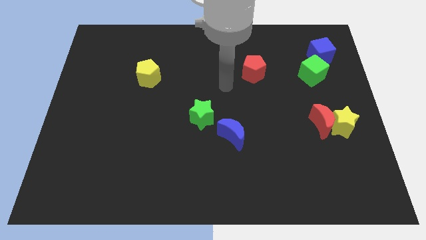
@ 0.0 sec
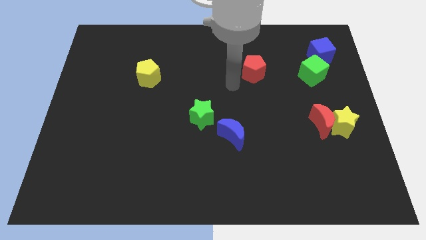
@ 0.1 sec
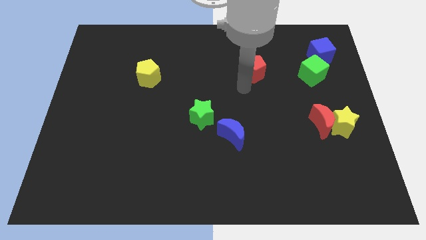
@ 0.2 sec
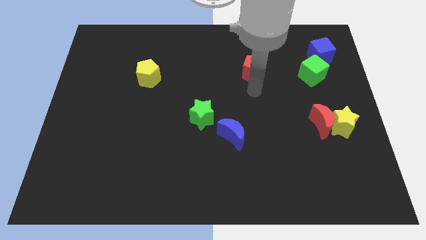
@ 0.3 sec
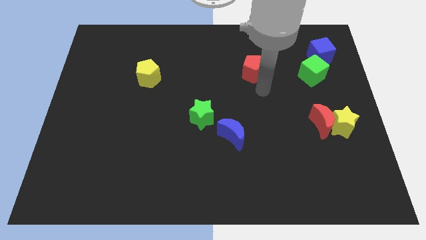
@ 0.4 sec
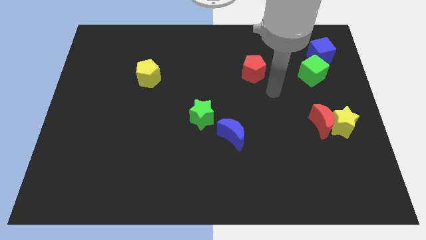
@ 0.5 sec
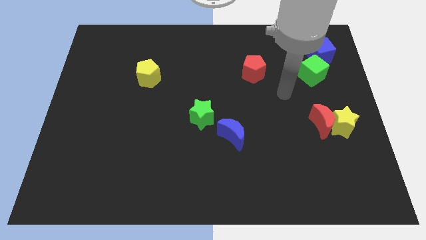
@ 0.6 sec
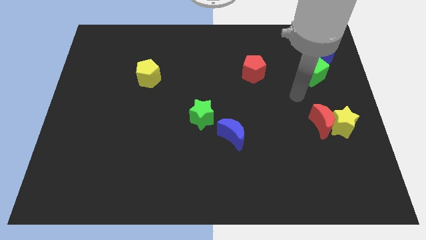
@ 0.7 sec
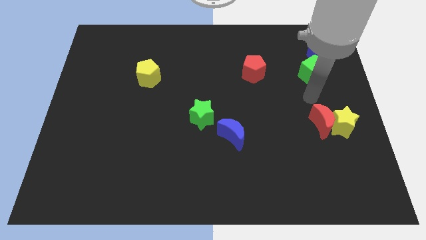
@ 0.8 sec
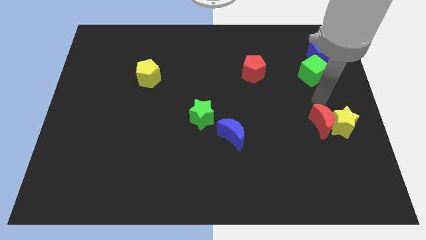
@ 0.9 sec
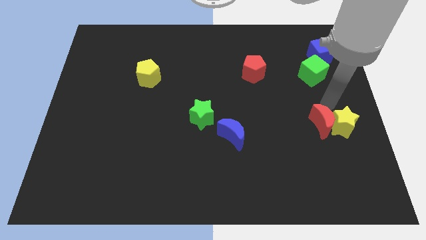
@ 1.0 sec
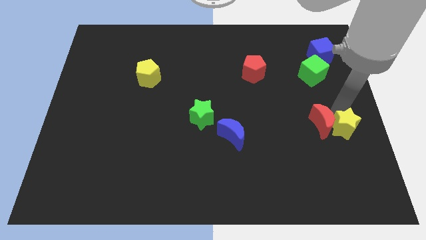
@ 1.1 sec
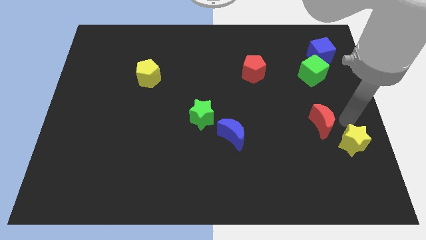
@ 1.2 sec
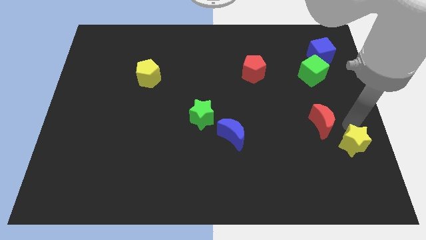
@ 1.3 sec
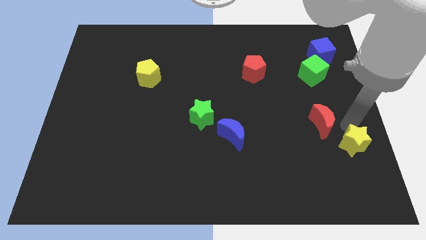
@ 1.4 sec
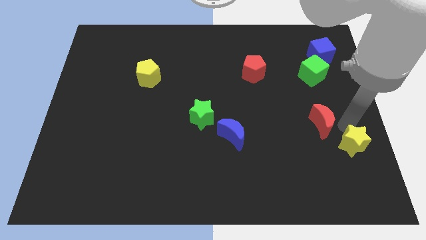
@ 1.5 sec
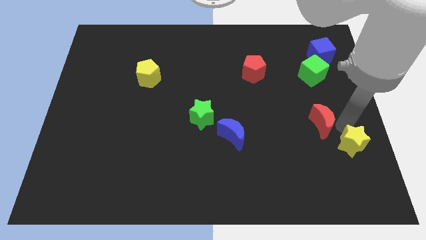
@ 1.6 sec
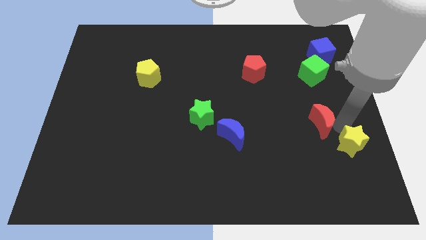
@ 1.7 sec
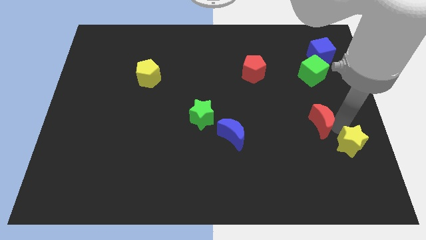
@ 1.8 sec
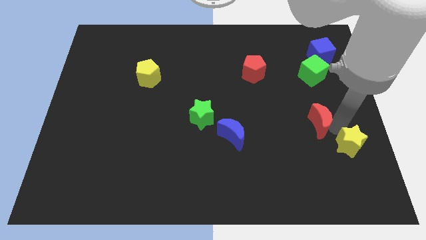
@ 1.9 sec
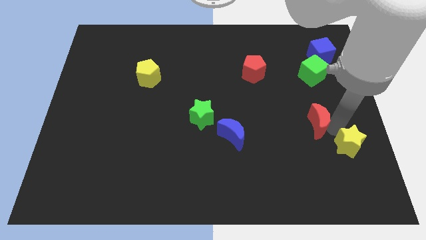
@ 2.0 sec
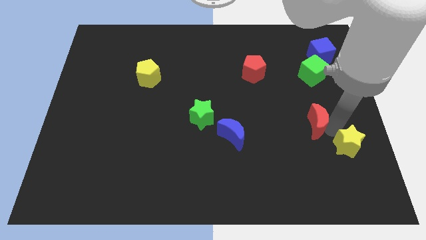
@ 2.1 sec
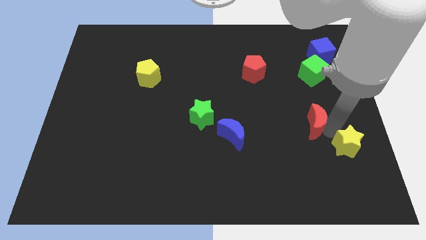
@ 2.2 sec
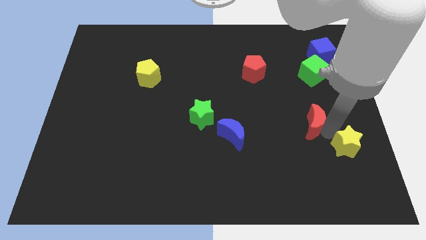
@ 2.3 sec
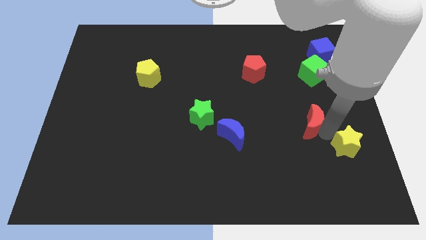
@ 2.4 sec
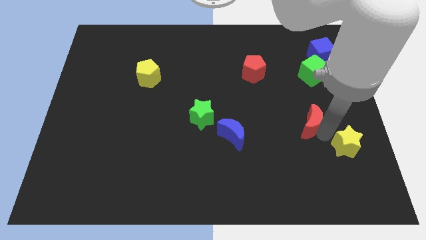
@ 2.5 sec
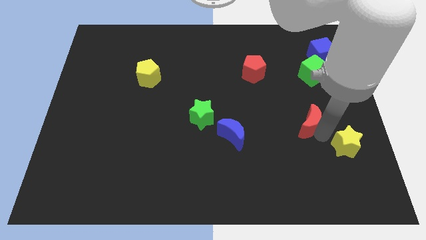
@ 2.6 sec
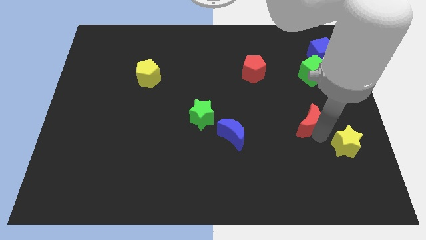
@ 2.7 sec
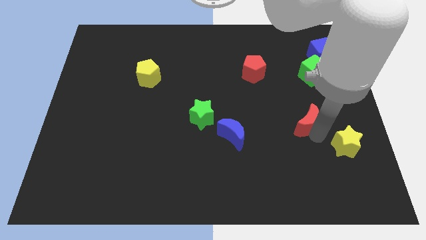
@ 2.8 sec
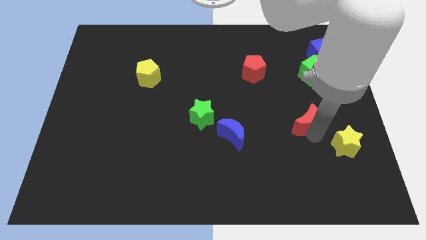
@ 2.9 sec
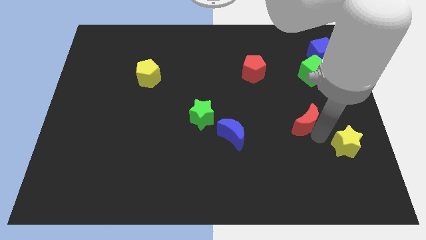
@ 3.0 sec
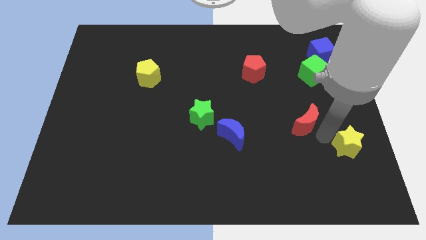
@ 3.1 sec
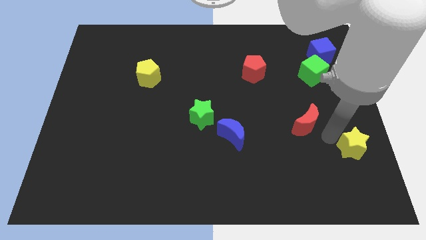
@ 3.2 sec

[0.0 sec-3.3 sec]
move the red moon away from the yellow star

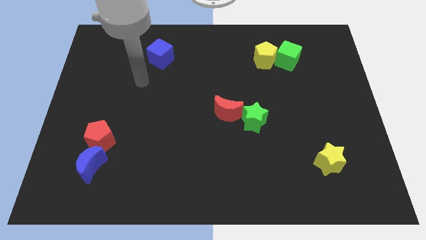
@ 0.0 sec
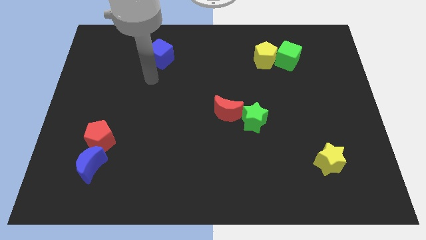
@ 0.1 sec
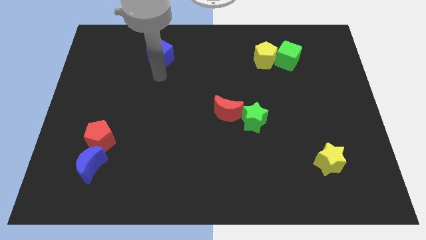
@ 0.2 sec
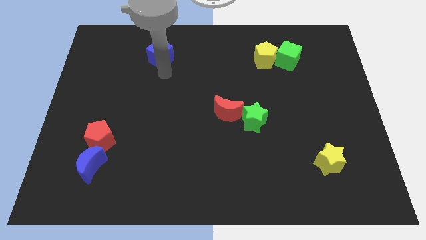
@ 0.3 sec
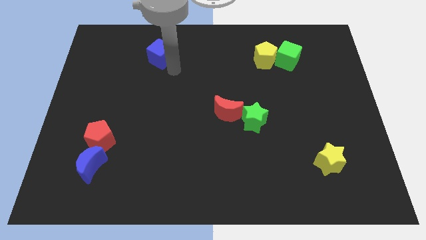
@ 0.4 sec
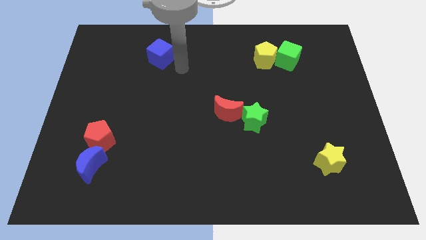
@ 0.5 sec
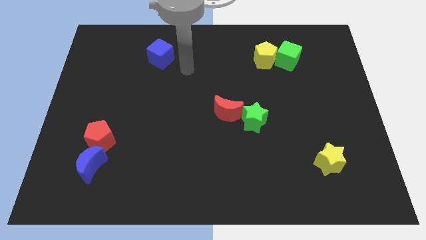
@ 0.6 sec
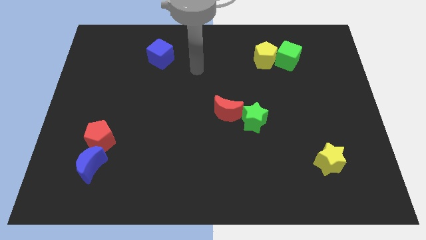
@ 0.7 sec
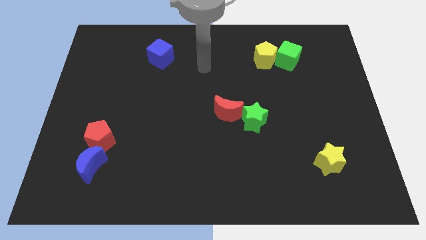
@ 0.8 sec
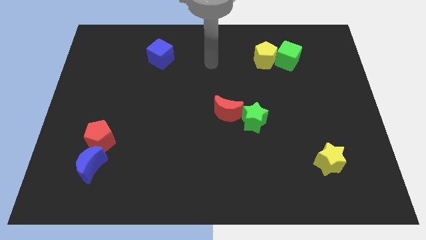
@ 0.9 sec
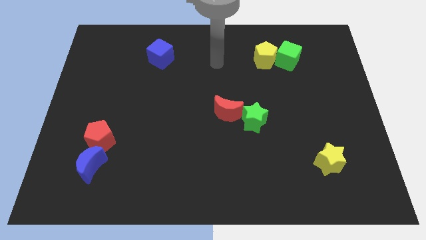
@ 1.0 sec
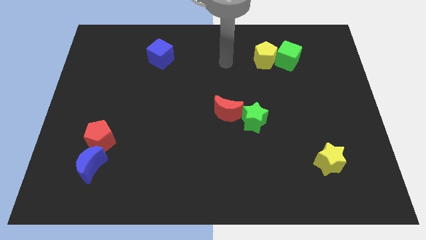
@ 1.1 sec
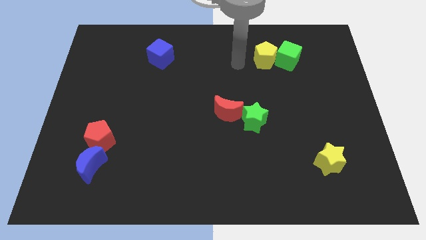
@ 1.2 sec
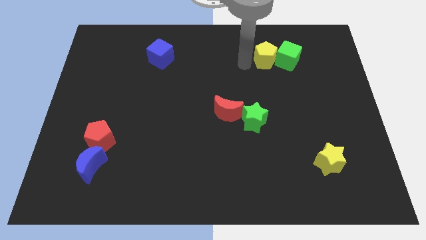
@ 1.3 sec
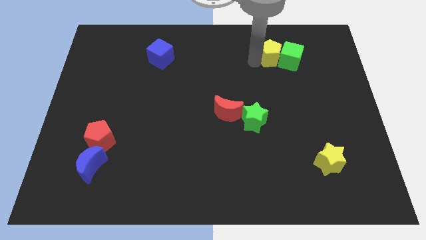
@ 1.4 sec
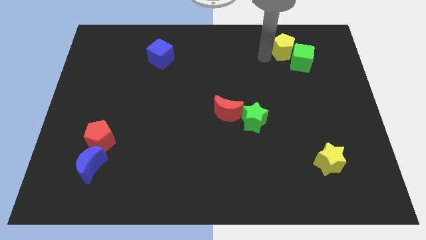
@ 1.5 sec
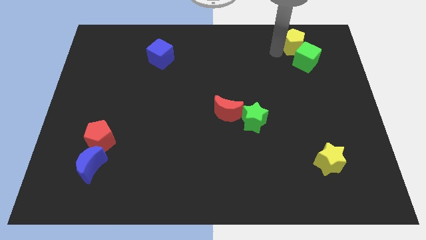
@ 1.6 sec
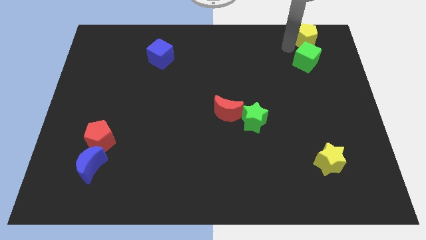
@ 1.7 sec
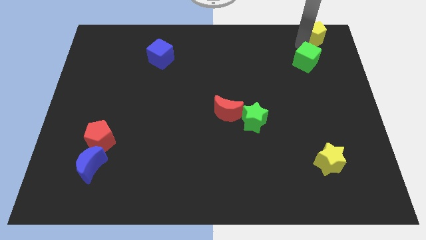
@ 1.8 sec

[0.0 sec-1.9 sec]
move the green cube away from the yellow pentagon

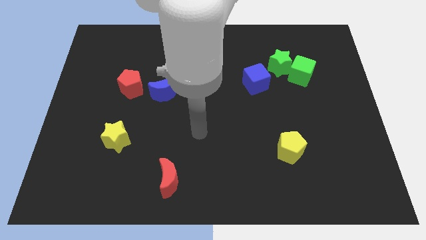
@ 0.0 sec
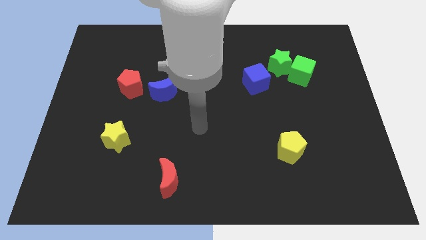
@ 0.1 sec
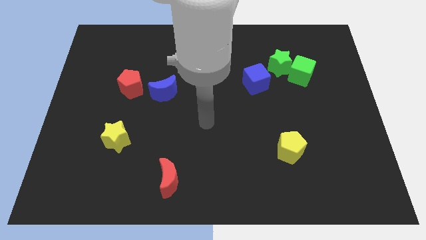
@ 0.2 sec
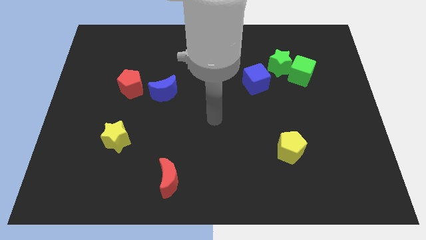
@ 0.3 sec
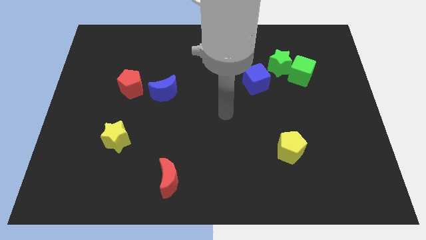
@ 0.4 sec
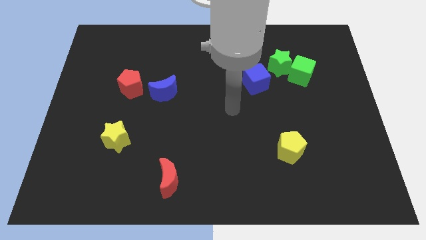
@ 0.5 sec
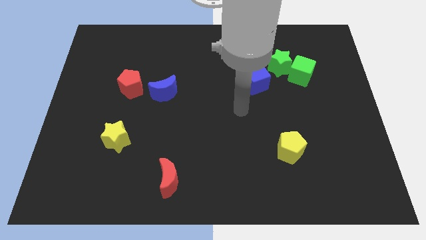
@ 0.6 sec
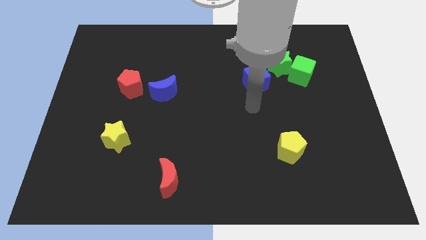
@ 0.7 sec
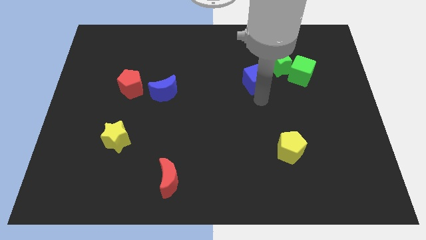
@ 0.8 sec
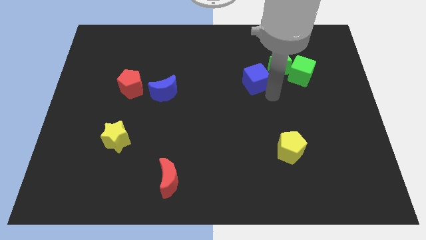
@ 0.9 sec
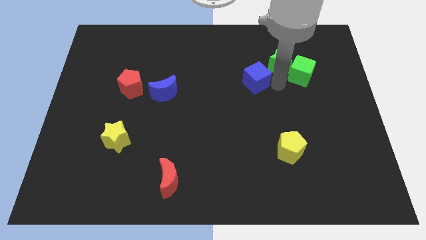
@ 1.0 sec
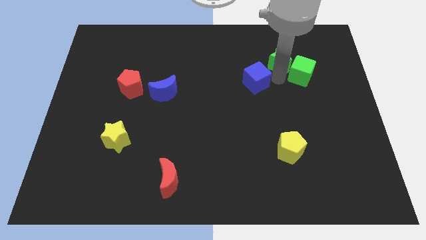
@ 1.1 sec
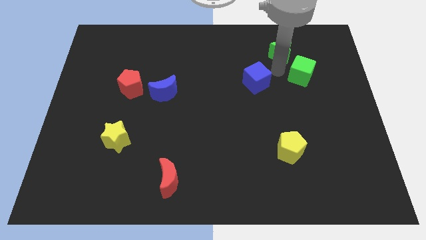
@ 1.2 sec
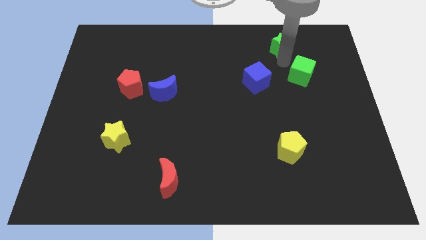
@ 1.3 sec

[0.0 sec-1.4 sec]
separate the green cube from the green star

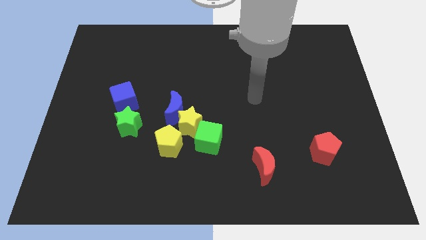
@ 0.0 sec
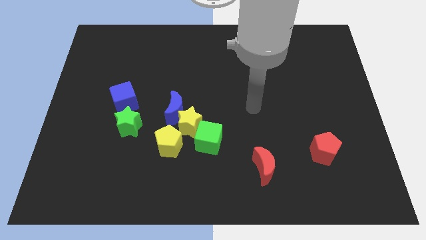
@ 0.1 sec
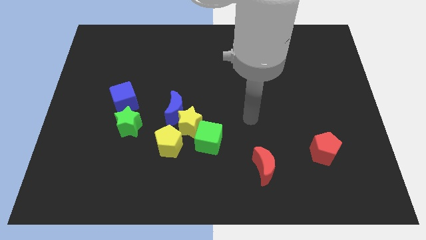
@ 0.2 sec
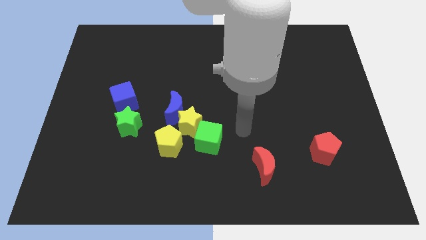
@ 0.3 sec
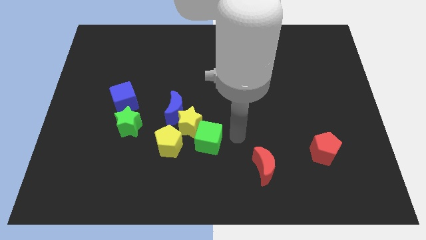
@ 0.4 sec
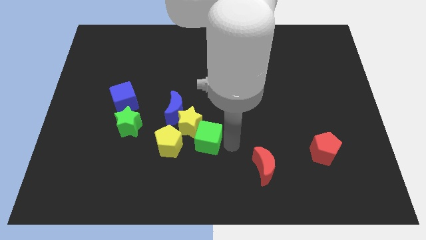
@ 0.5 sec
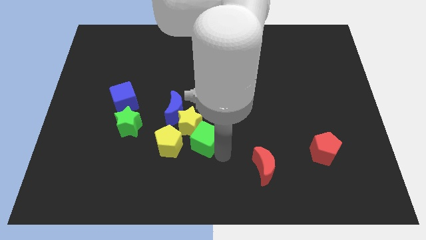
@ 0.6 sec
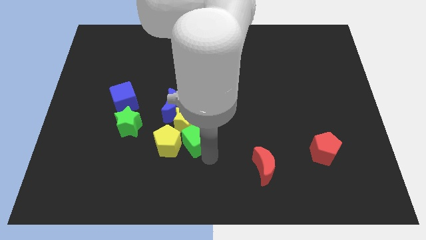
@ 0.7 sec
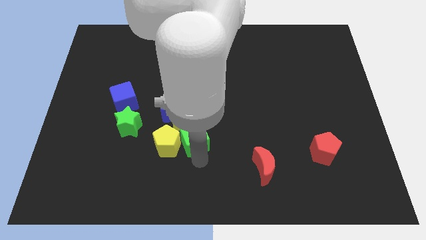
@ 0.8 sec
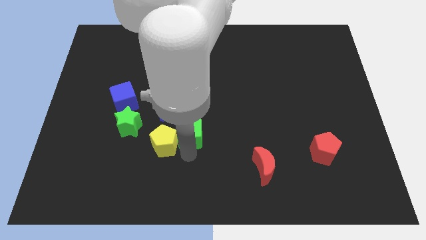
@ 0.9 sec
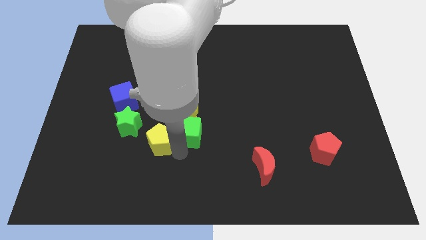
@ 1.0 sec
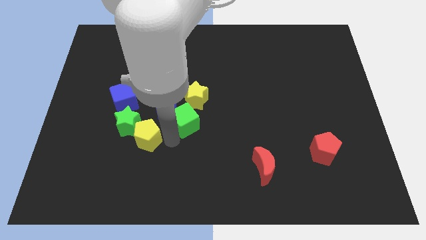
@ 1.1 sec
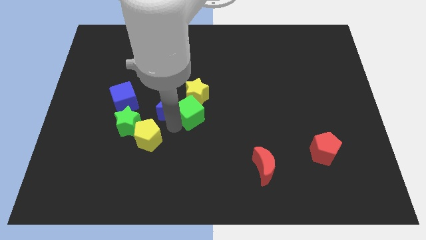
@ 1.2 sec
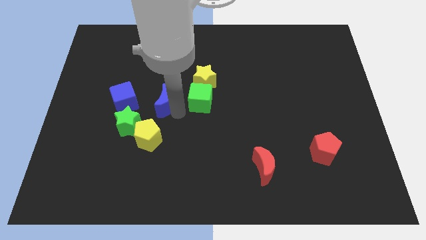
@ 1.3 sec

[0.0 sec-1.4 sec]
move the yellow star away from the blue moon, green cube, and yellow pentagon

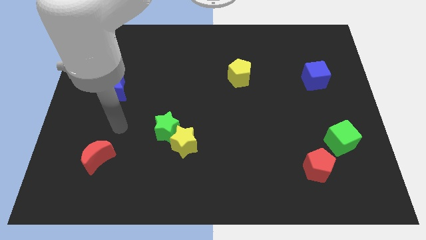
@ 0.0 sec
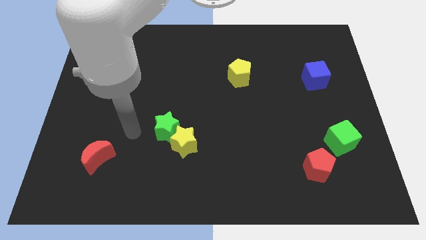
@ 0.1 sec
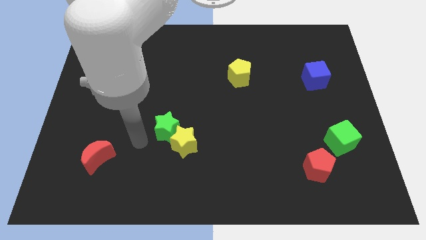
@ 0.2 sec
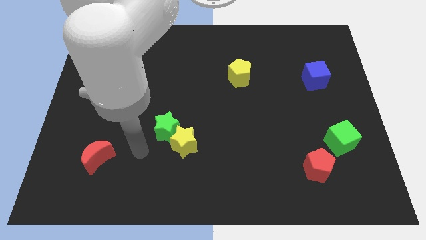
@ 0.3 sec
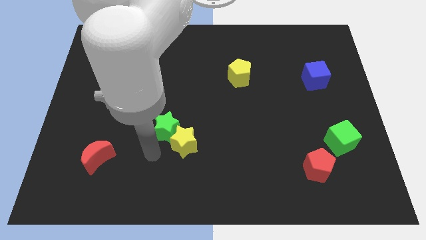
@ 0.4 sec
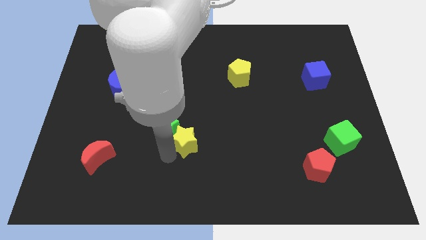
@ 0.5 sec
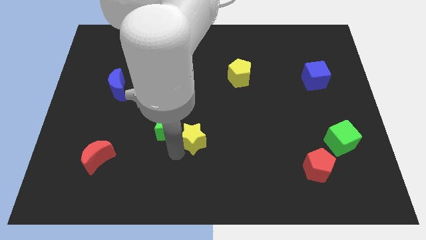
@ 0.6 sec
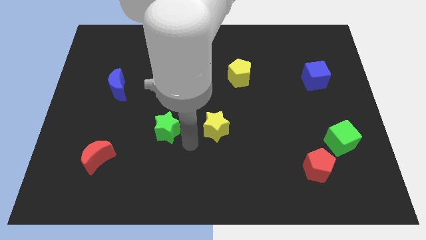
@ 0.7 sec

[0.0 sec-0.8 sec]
pull the green star apart from the yellow star

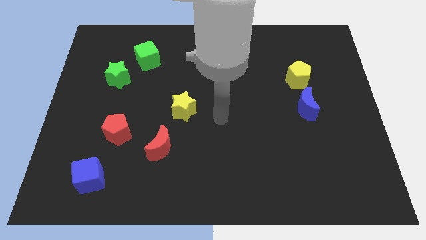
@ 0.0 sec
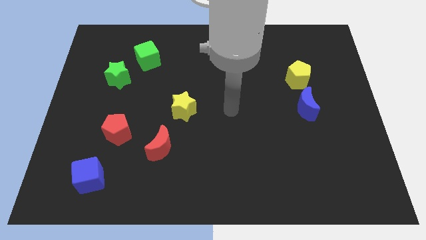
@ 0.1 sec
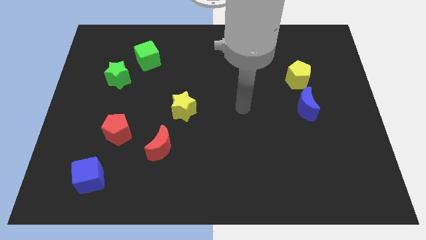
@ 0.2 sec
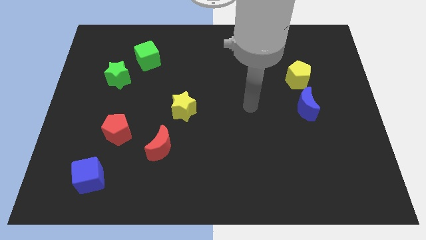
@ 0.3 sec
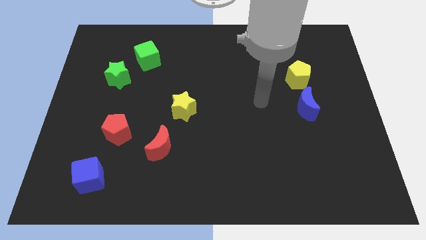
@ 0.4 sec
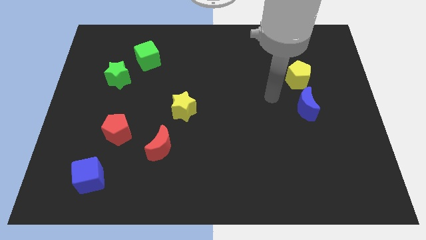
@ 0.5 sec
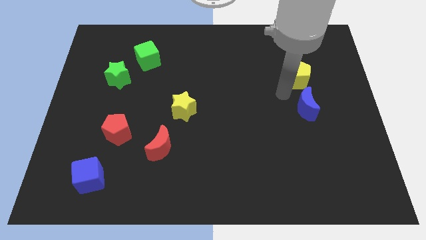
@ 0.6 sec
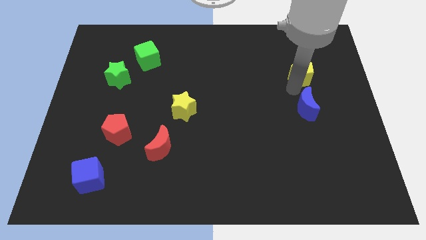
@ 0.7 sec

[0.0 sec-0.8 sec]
pull the blue moon apart from the yellow pentagon
